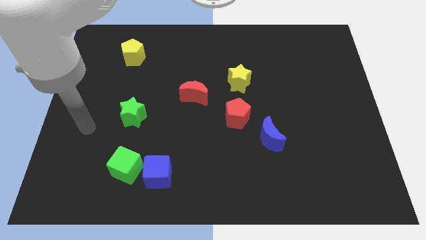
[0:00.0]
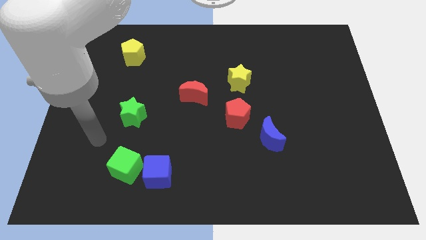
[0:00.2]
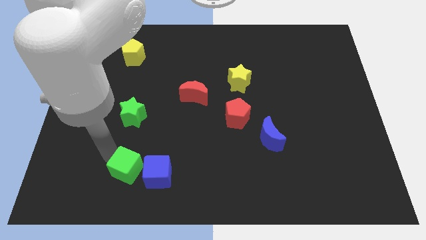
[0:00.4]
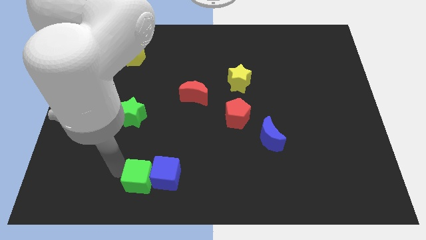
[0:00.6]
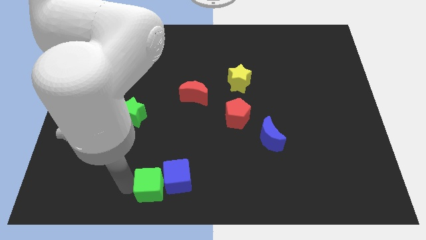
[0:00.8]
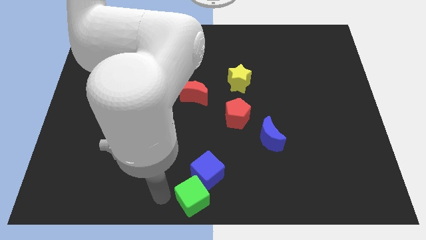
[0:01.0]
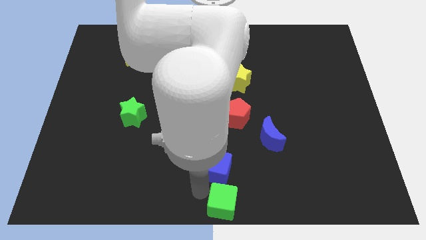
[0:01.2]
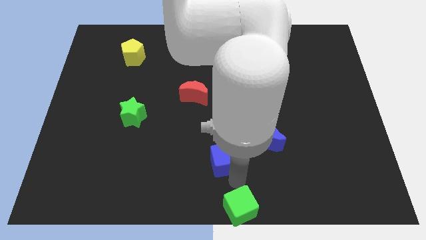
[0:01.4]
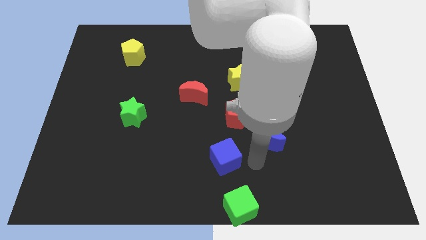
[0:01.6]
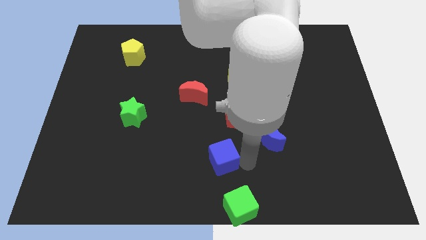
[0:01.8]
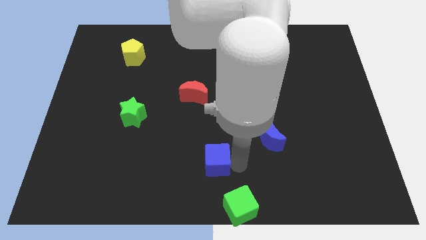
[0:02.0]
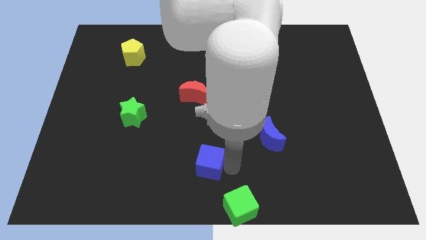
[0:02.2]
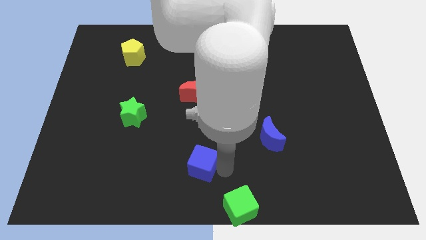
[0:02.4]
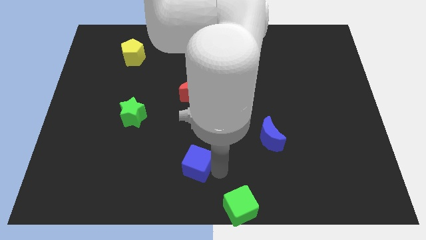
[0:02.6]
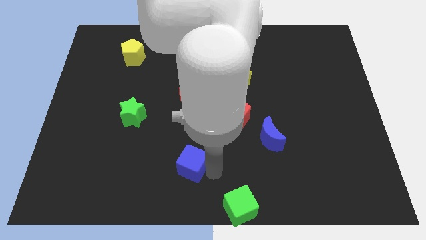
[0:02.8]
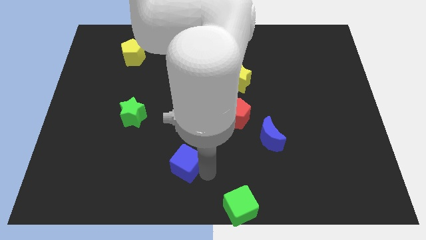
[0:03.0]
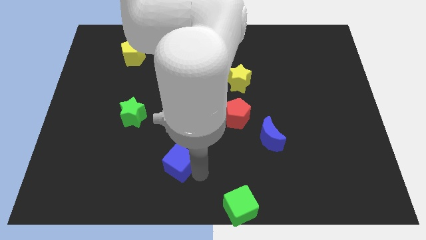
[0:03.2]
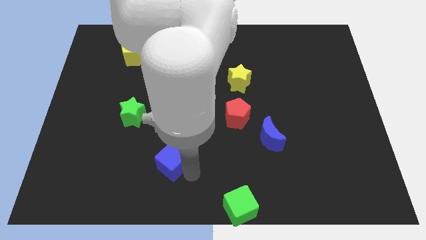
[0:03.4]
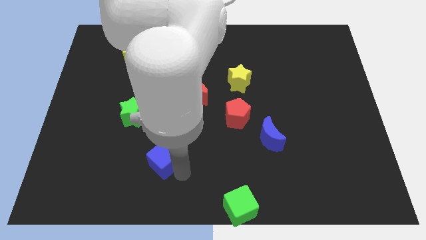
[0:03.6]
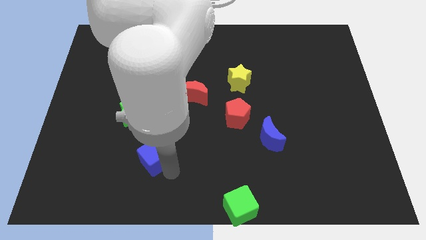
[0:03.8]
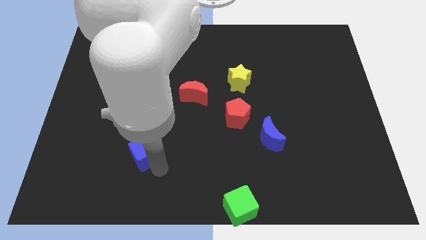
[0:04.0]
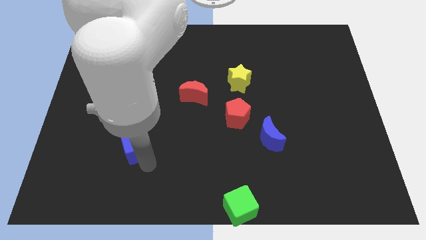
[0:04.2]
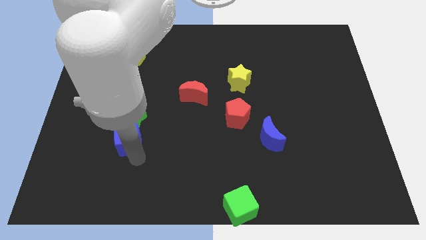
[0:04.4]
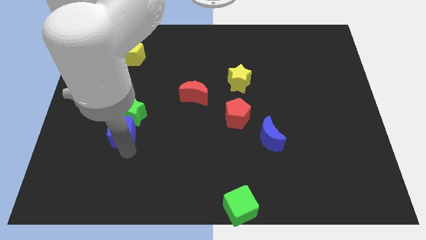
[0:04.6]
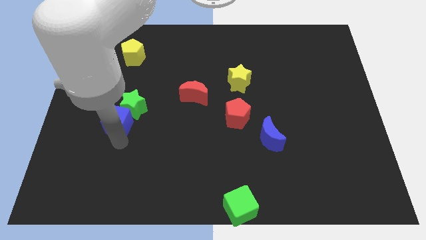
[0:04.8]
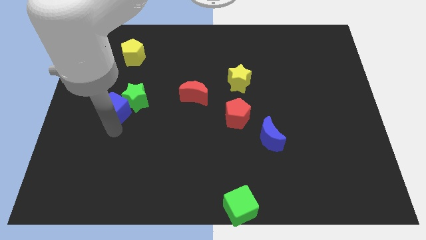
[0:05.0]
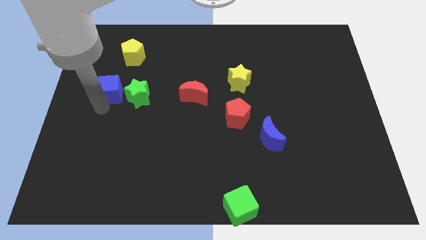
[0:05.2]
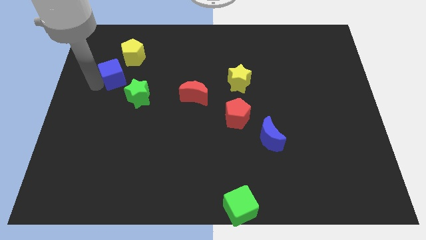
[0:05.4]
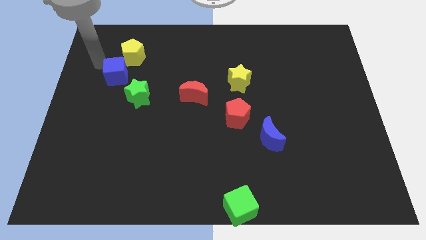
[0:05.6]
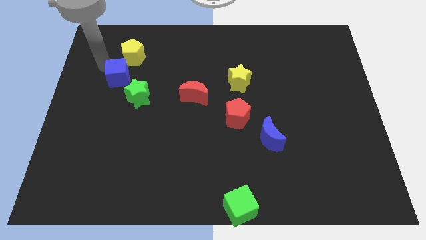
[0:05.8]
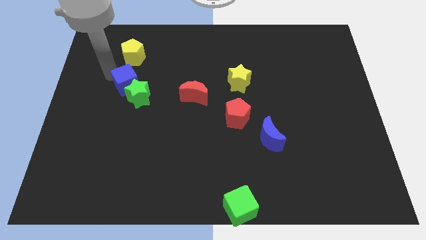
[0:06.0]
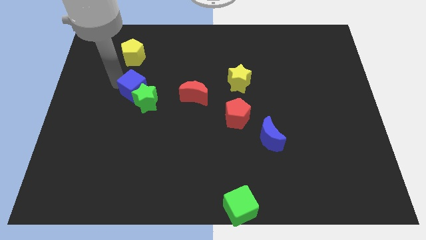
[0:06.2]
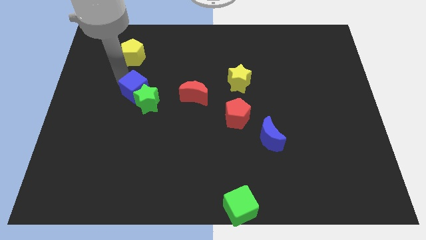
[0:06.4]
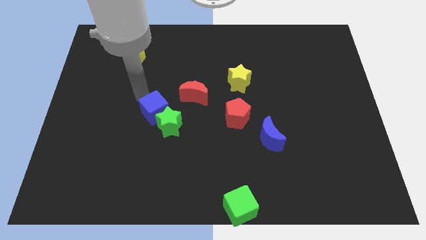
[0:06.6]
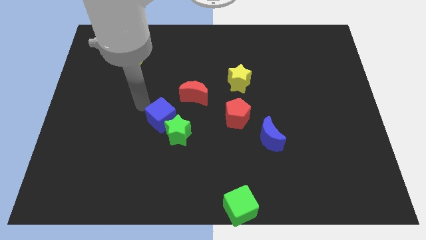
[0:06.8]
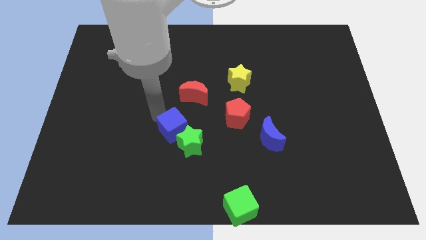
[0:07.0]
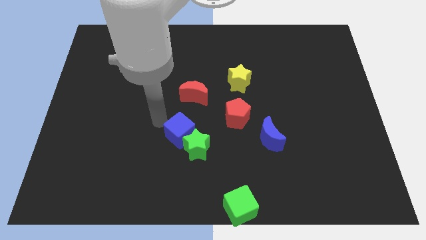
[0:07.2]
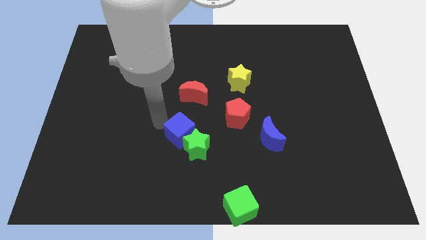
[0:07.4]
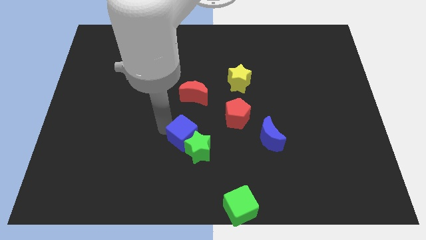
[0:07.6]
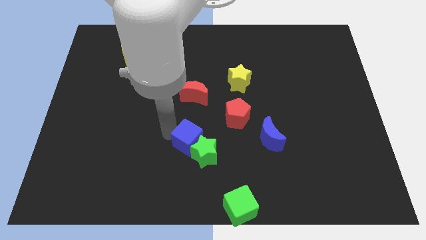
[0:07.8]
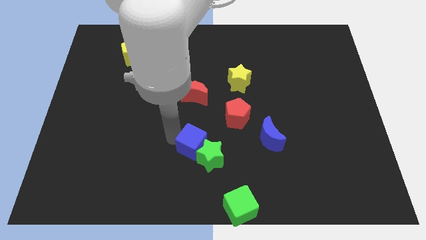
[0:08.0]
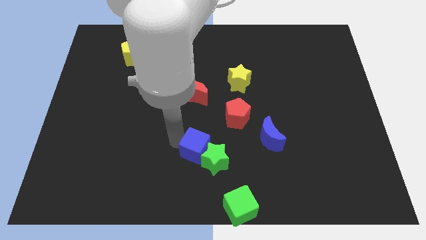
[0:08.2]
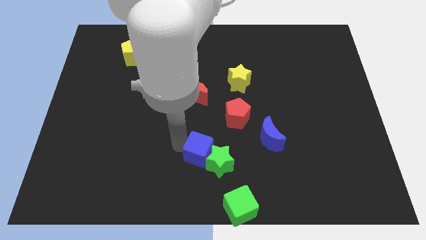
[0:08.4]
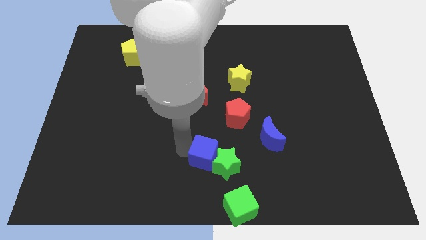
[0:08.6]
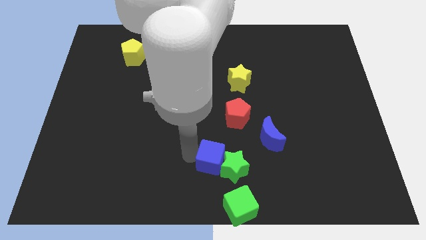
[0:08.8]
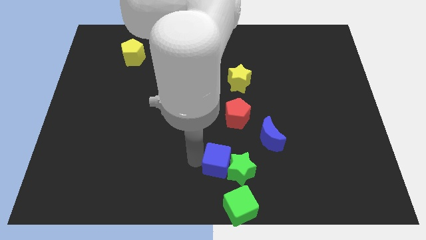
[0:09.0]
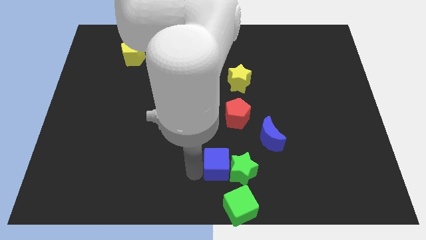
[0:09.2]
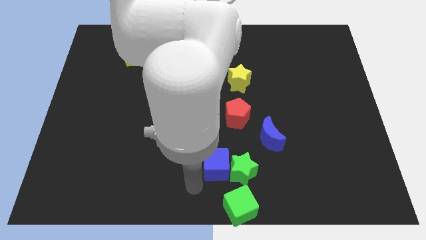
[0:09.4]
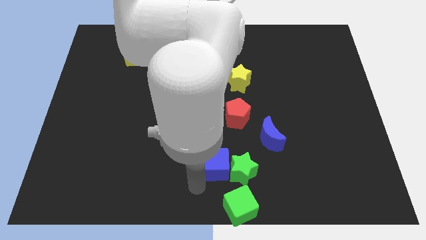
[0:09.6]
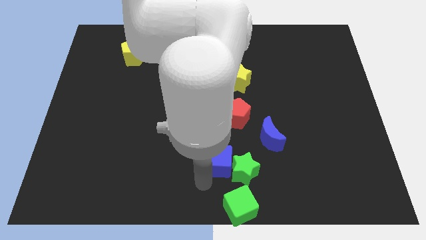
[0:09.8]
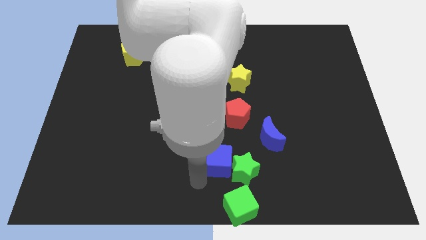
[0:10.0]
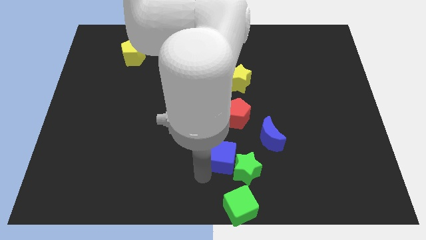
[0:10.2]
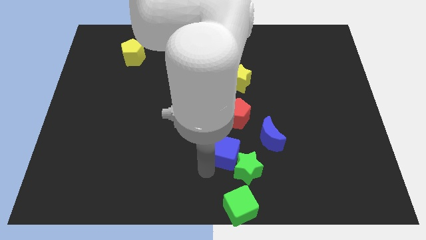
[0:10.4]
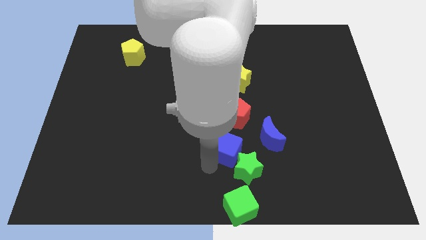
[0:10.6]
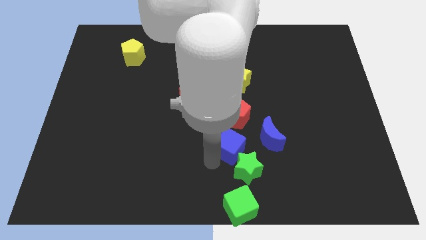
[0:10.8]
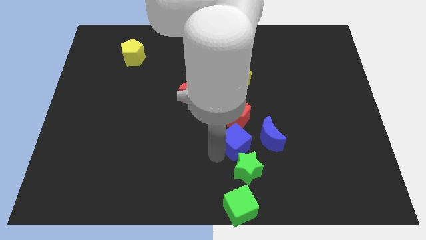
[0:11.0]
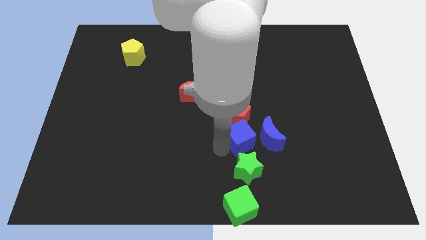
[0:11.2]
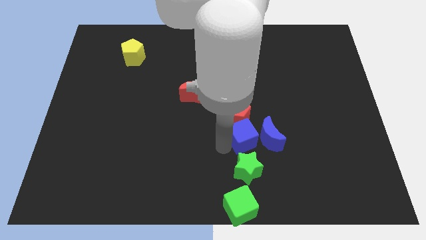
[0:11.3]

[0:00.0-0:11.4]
push the blue cube towards the blue moon

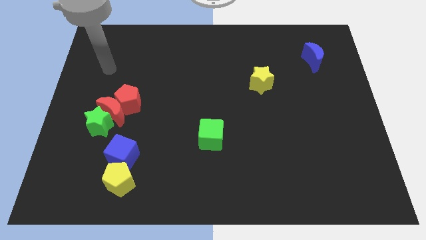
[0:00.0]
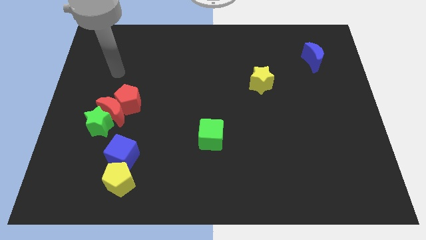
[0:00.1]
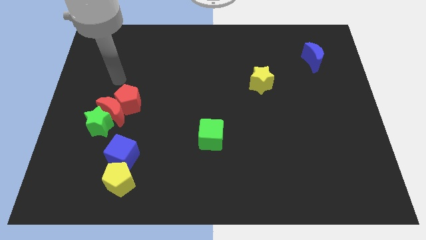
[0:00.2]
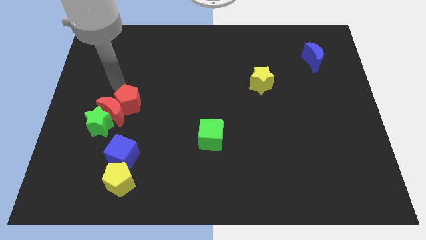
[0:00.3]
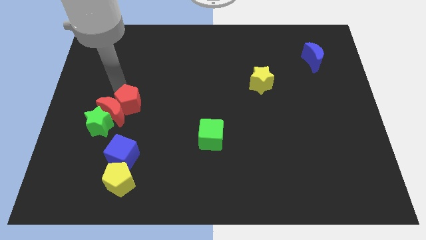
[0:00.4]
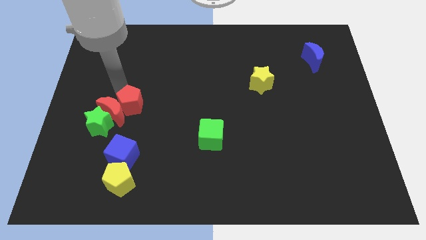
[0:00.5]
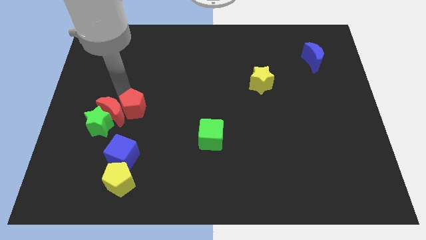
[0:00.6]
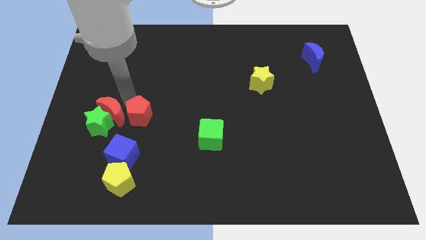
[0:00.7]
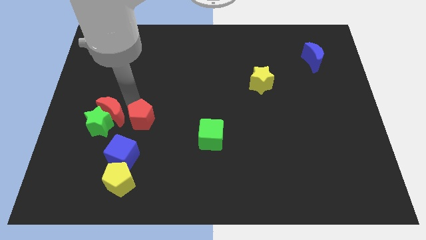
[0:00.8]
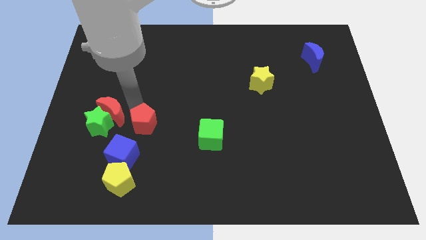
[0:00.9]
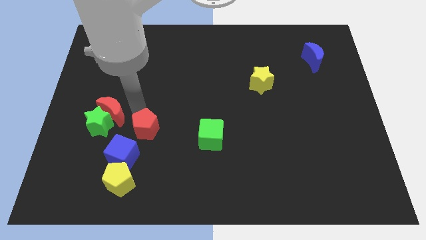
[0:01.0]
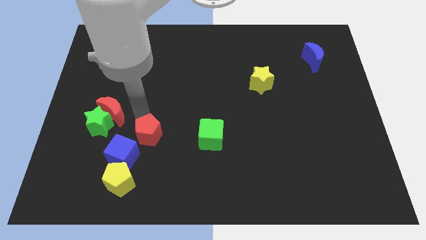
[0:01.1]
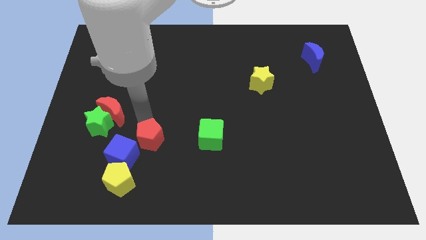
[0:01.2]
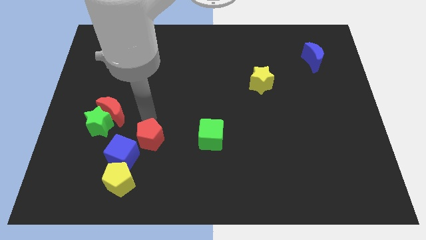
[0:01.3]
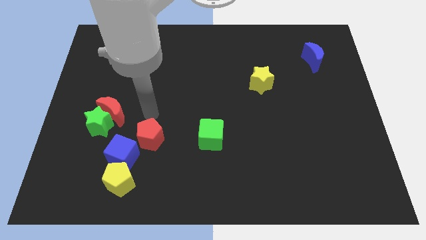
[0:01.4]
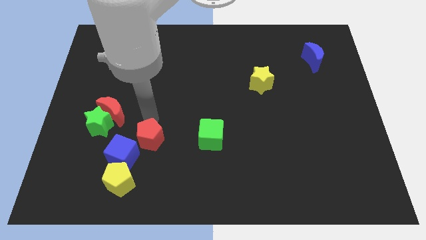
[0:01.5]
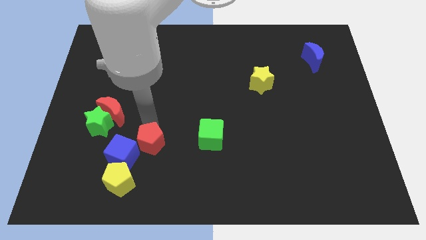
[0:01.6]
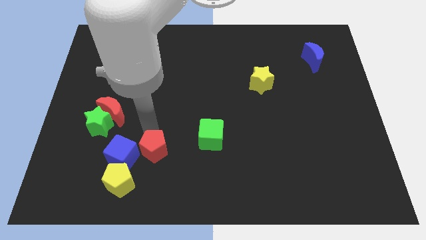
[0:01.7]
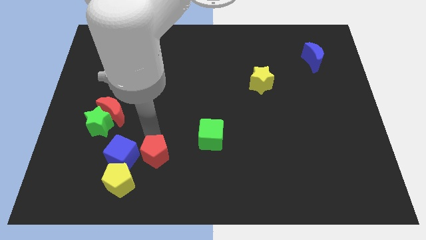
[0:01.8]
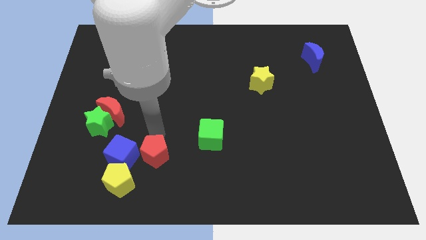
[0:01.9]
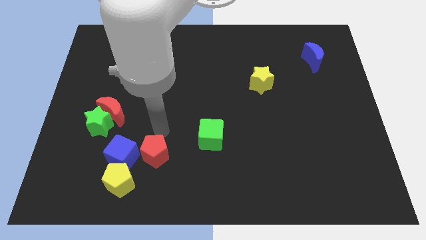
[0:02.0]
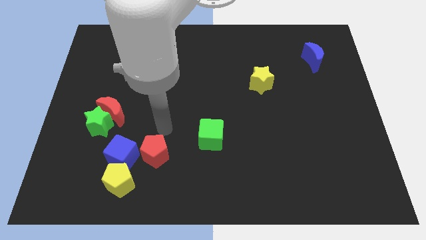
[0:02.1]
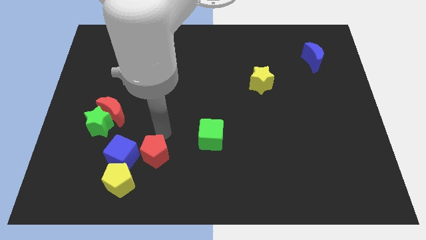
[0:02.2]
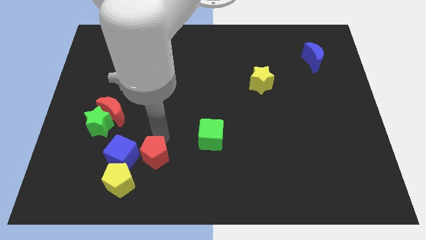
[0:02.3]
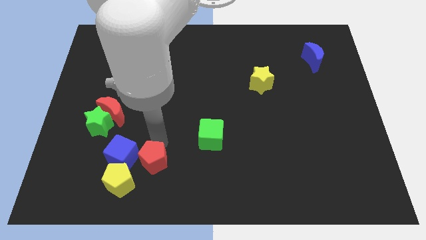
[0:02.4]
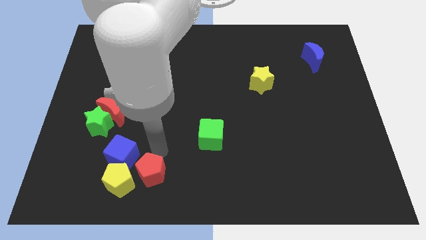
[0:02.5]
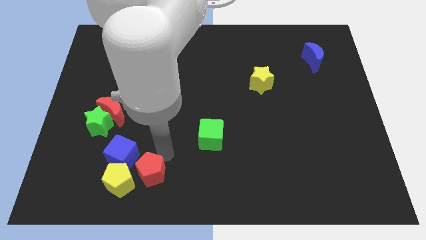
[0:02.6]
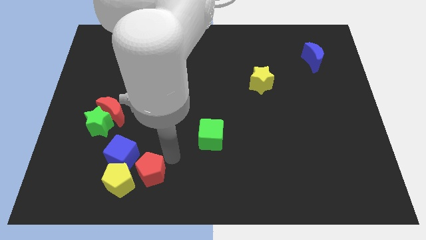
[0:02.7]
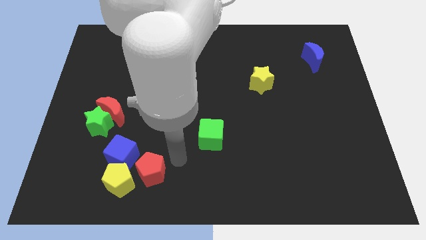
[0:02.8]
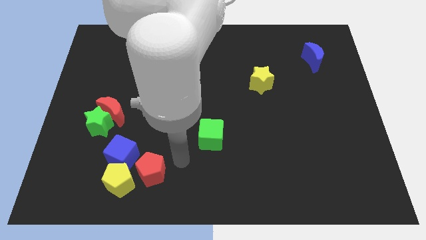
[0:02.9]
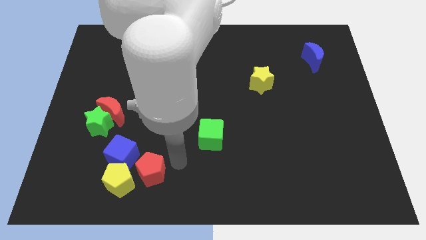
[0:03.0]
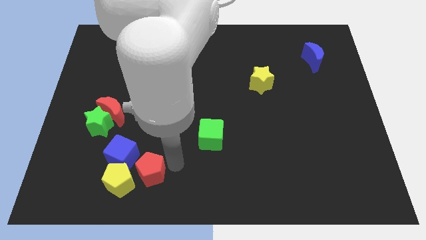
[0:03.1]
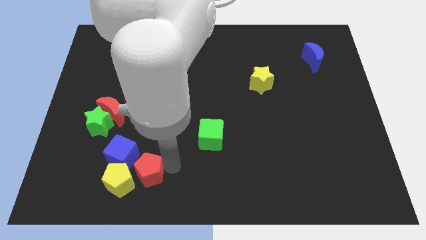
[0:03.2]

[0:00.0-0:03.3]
push the red pentagon next to the yellow pentagon
